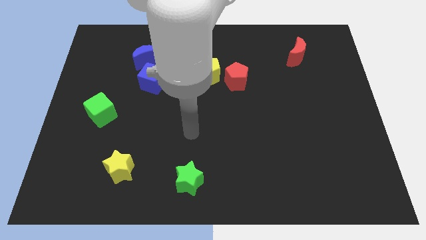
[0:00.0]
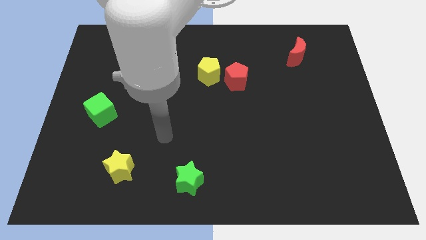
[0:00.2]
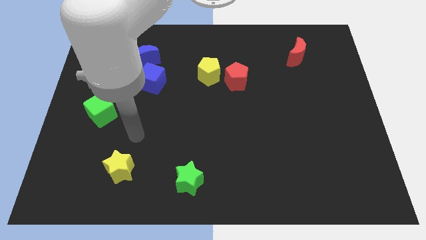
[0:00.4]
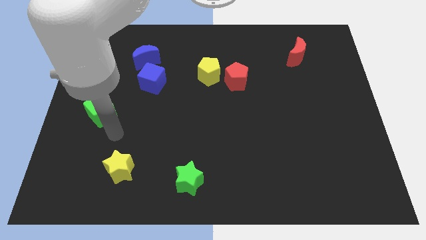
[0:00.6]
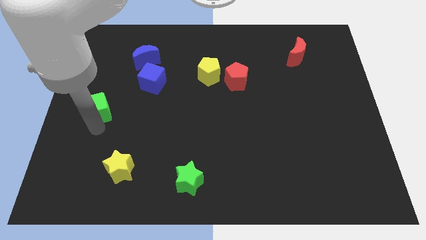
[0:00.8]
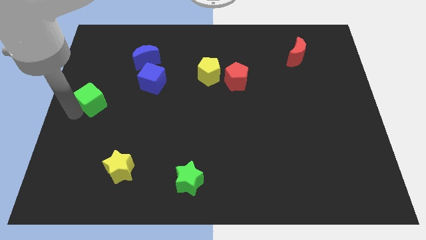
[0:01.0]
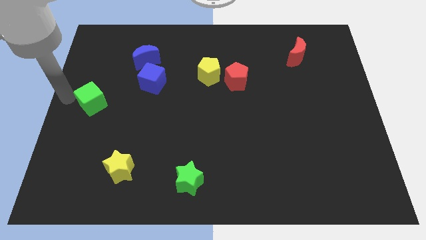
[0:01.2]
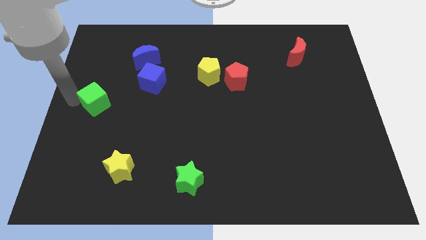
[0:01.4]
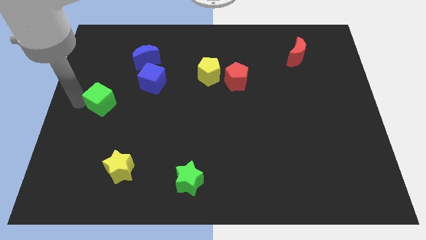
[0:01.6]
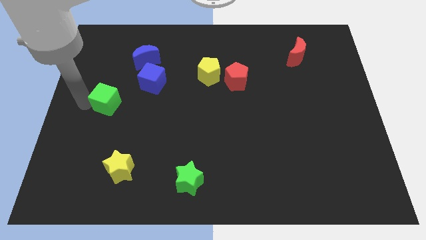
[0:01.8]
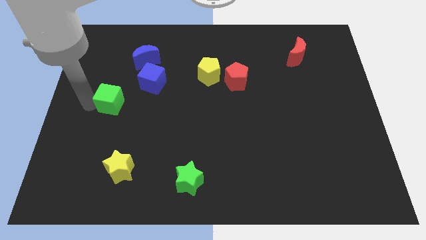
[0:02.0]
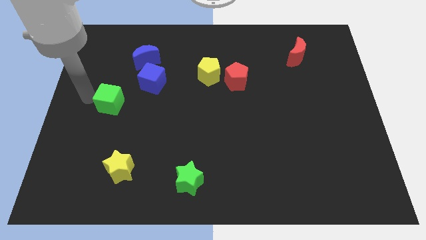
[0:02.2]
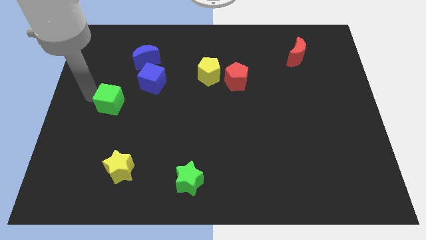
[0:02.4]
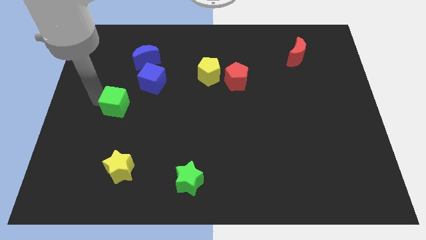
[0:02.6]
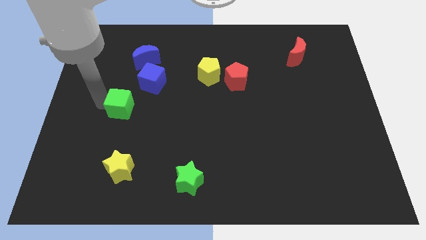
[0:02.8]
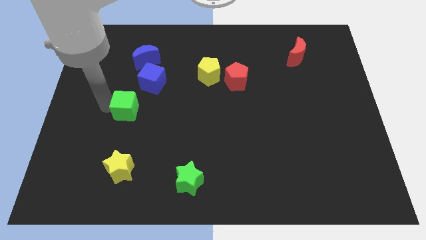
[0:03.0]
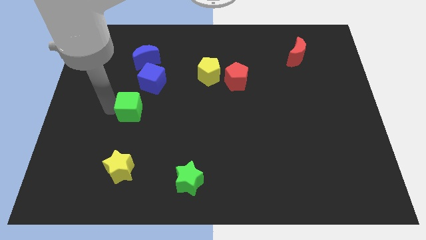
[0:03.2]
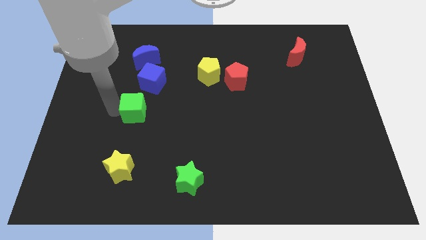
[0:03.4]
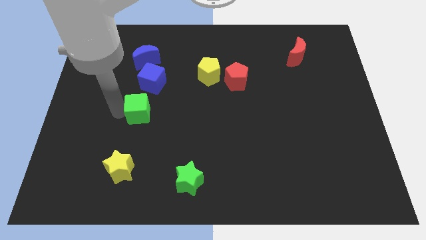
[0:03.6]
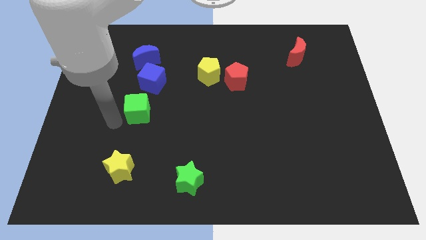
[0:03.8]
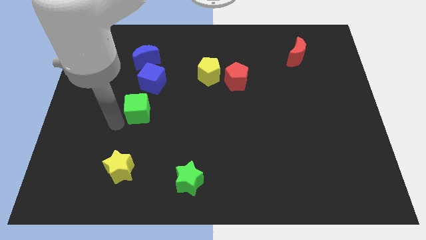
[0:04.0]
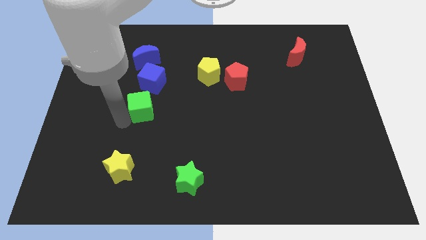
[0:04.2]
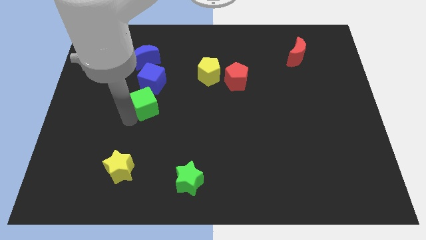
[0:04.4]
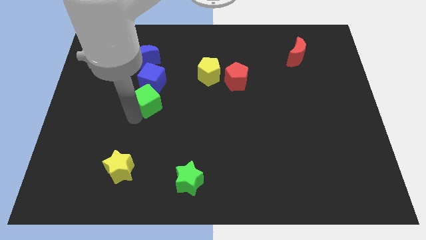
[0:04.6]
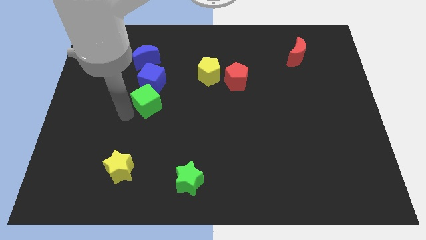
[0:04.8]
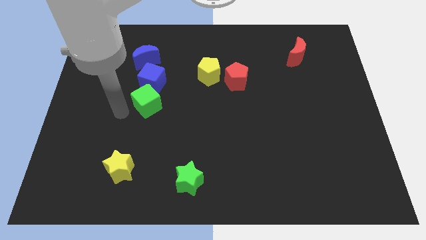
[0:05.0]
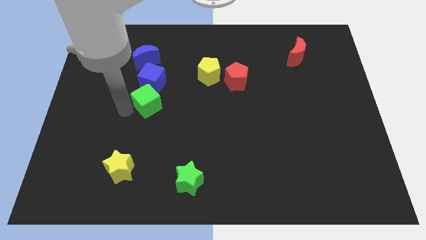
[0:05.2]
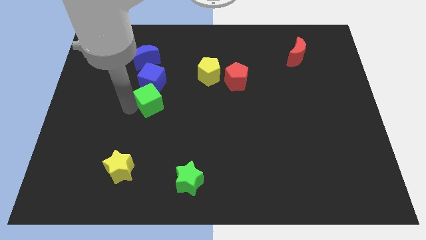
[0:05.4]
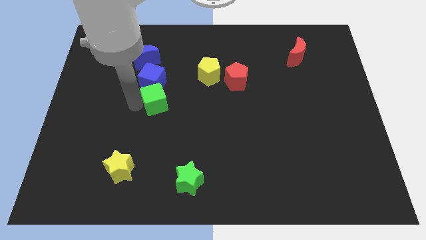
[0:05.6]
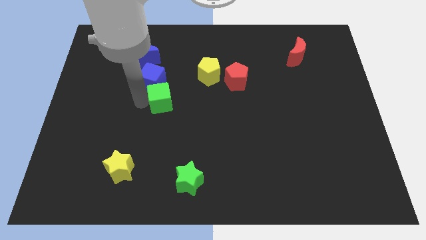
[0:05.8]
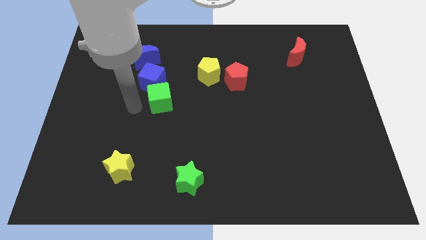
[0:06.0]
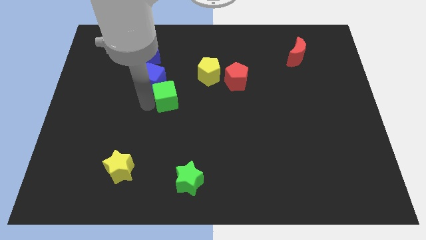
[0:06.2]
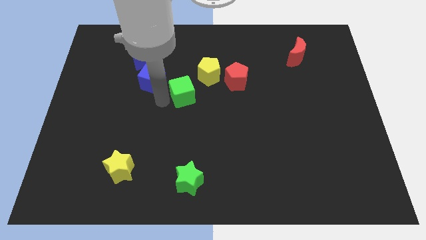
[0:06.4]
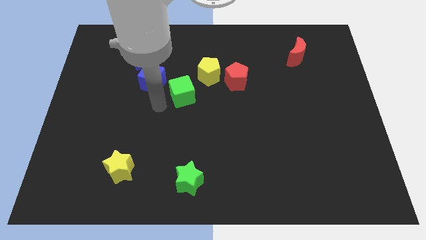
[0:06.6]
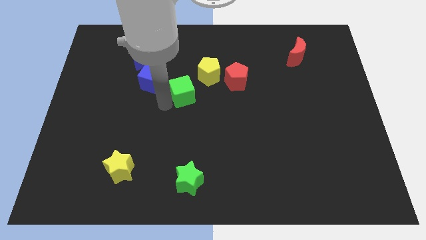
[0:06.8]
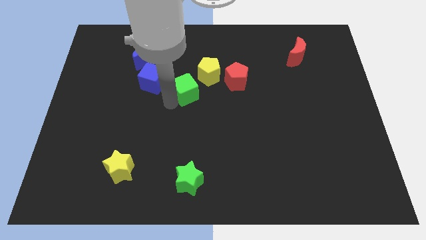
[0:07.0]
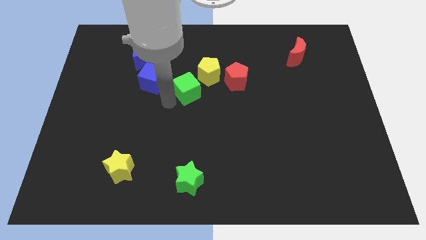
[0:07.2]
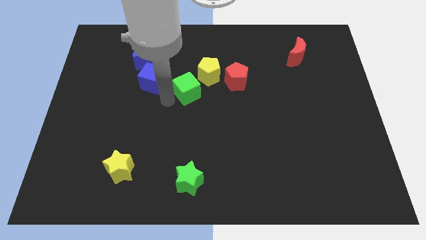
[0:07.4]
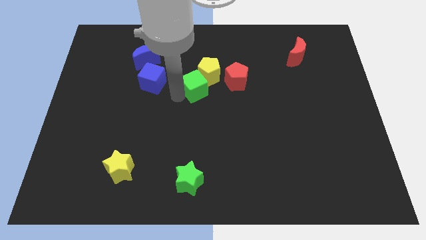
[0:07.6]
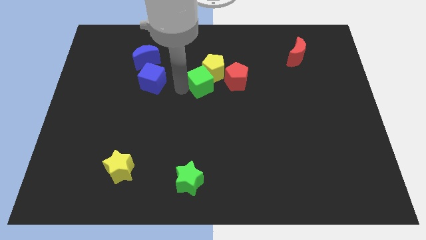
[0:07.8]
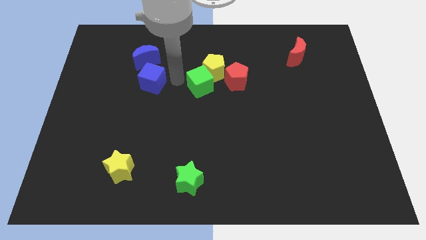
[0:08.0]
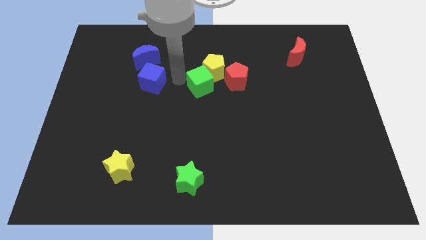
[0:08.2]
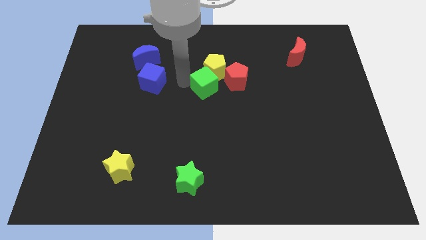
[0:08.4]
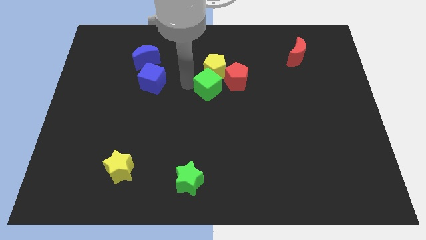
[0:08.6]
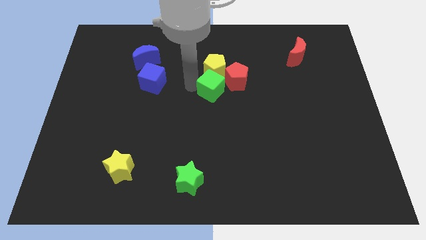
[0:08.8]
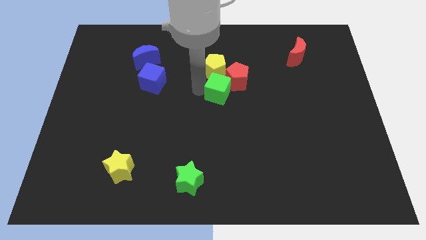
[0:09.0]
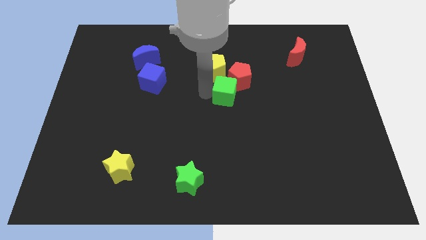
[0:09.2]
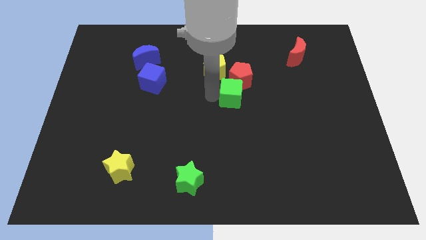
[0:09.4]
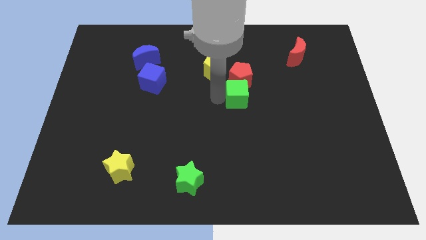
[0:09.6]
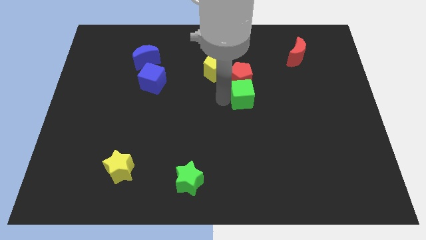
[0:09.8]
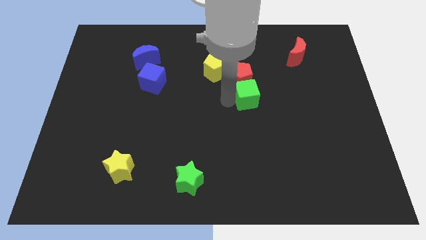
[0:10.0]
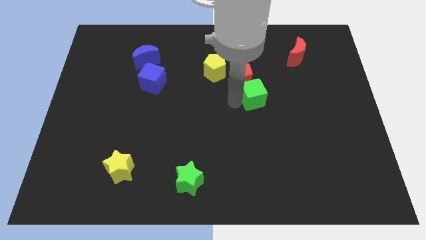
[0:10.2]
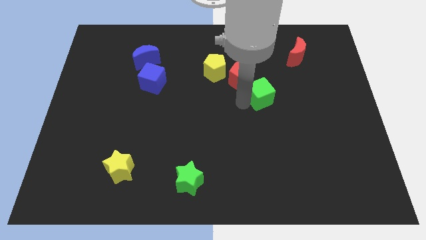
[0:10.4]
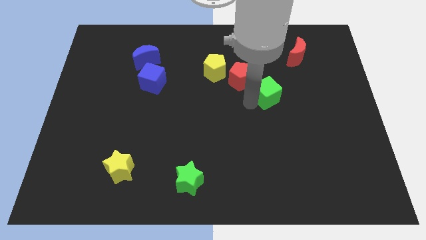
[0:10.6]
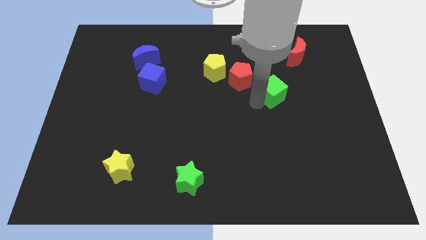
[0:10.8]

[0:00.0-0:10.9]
slide the green cube to the right of the red pentagon

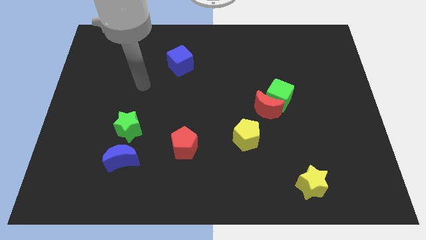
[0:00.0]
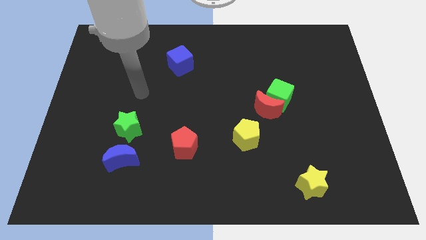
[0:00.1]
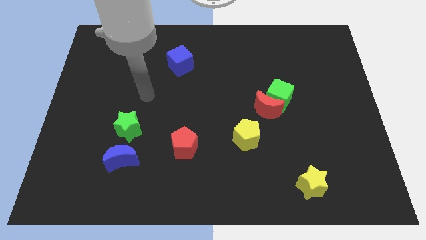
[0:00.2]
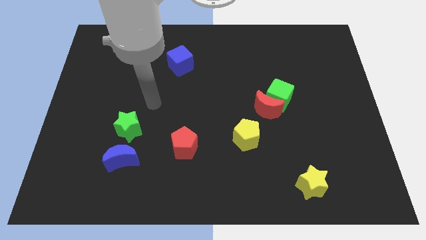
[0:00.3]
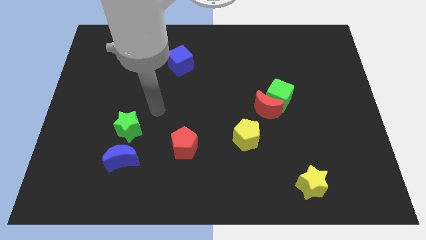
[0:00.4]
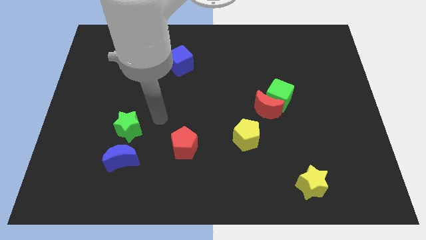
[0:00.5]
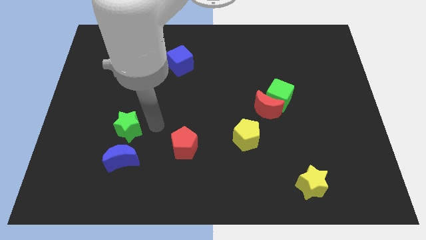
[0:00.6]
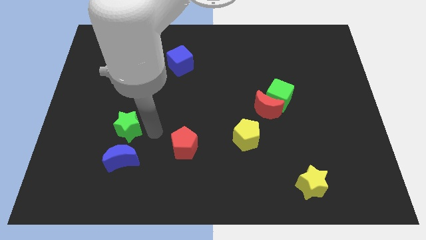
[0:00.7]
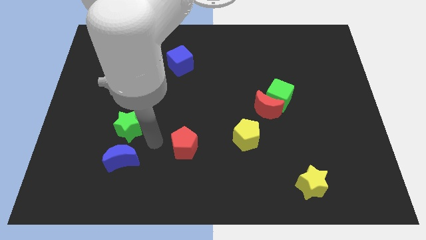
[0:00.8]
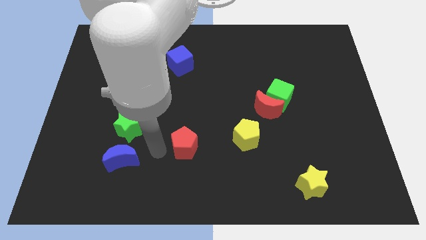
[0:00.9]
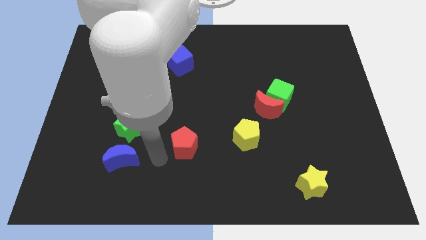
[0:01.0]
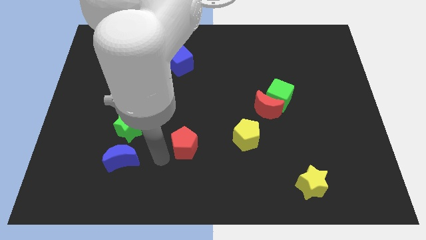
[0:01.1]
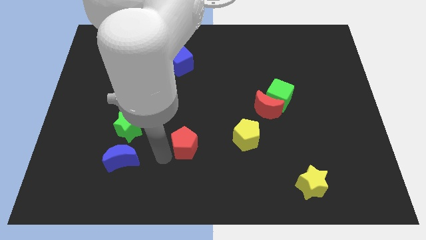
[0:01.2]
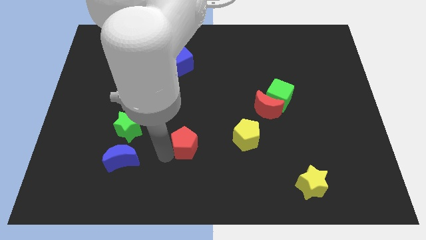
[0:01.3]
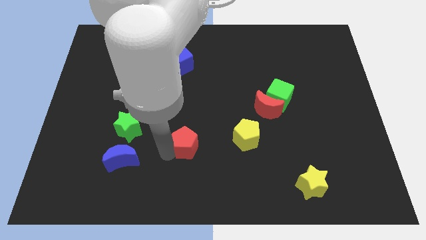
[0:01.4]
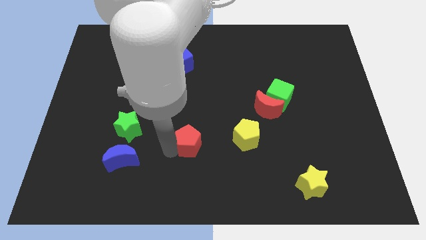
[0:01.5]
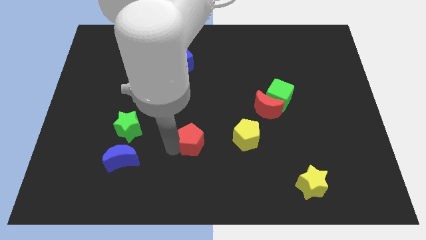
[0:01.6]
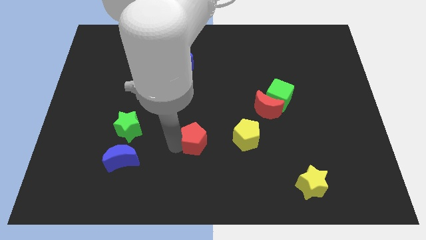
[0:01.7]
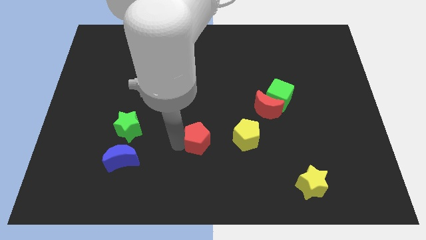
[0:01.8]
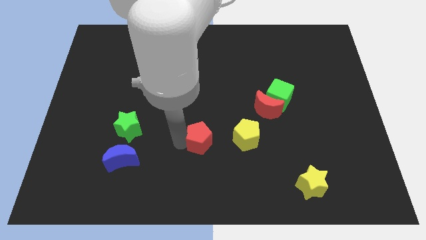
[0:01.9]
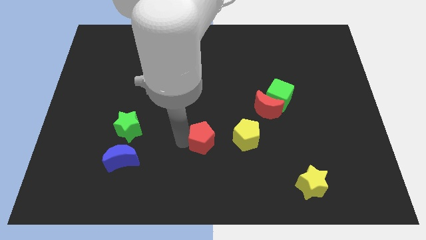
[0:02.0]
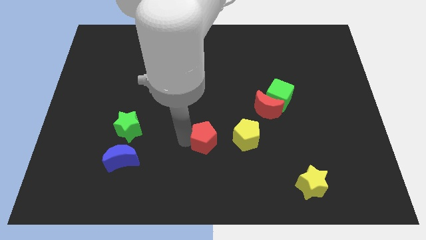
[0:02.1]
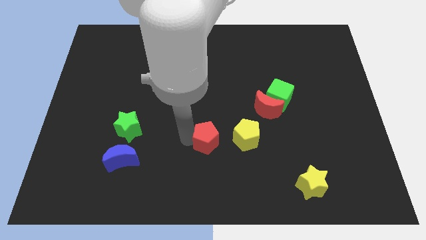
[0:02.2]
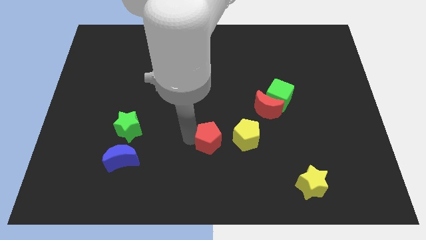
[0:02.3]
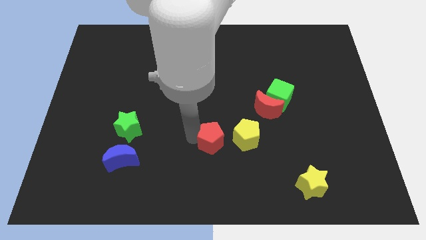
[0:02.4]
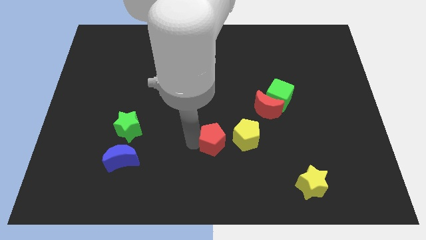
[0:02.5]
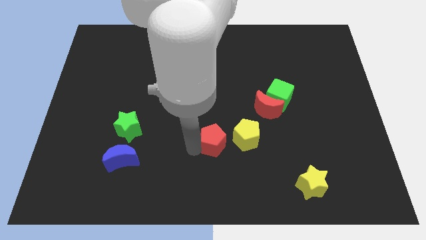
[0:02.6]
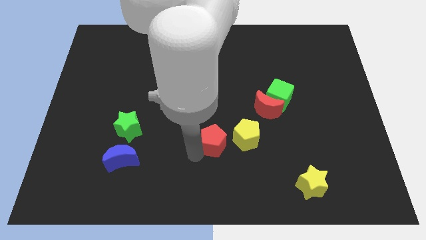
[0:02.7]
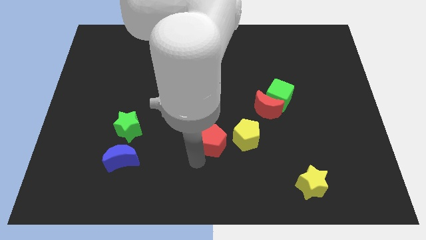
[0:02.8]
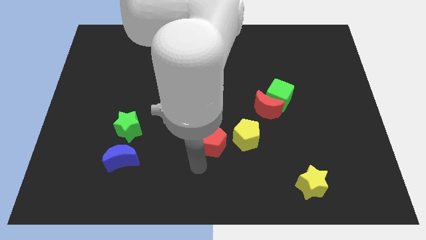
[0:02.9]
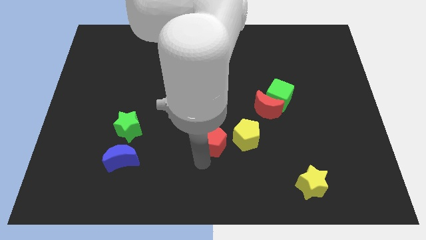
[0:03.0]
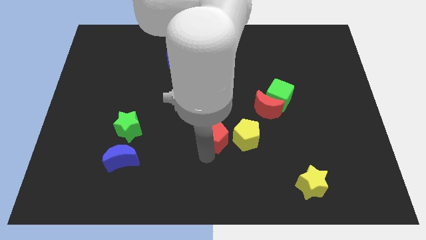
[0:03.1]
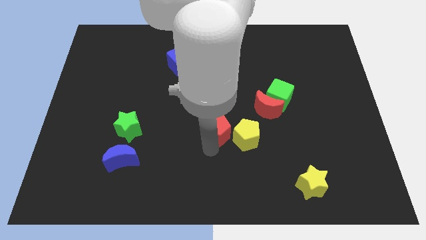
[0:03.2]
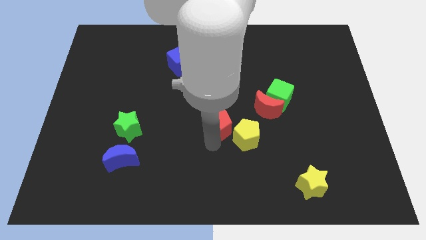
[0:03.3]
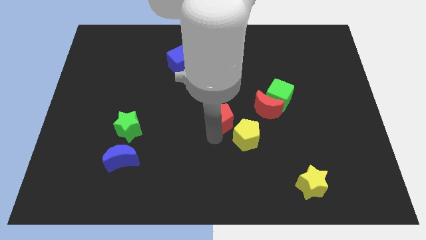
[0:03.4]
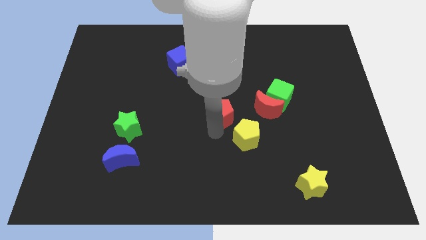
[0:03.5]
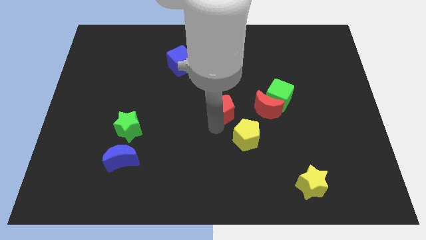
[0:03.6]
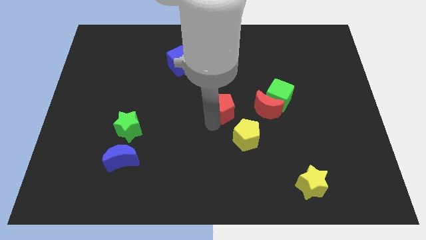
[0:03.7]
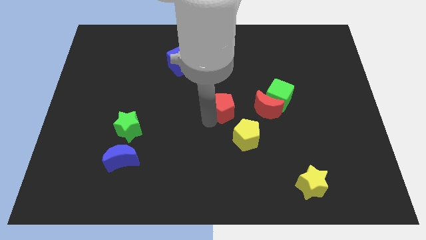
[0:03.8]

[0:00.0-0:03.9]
put the red pentagon to the top side of the yellow pentagon
